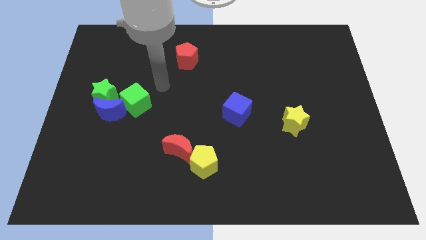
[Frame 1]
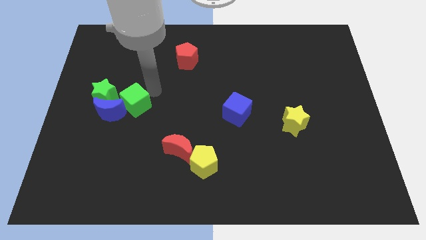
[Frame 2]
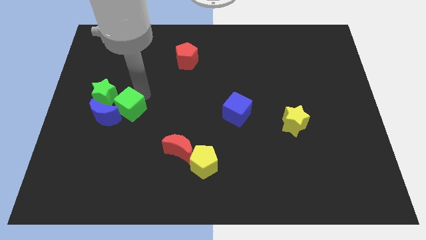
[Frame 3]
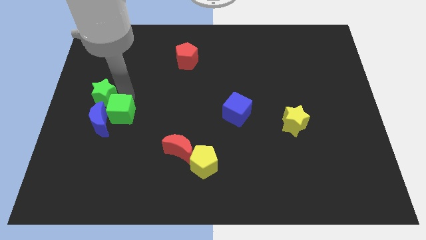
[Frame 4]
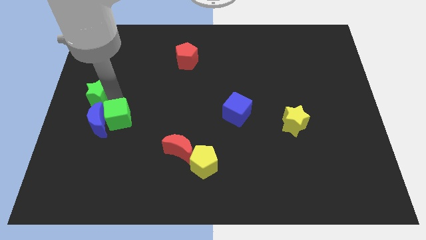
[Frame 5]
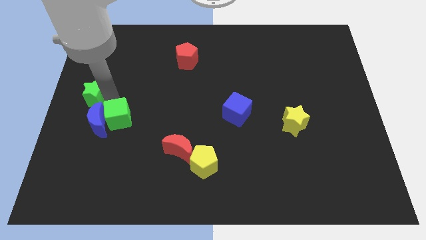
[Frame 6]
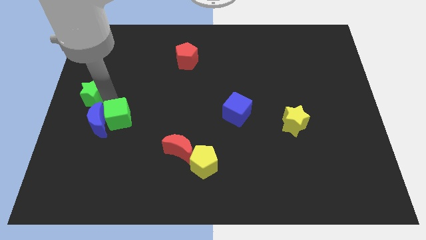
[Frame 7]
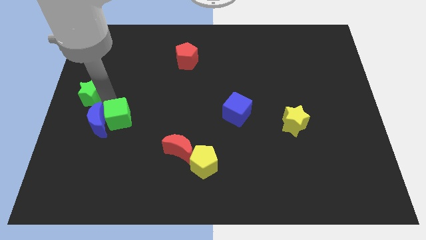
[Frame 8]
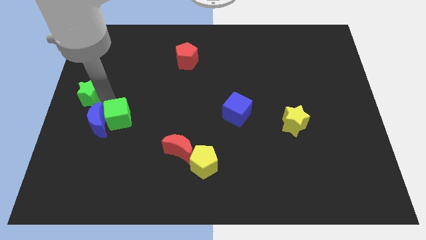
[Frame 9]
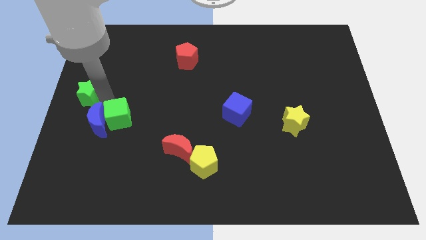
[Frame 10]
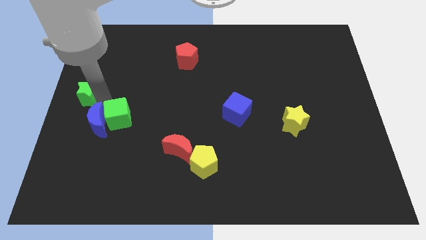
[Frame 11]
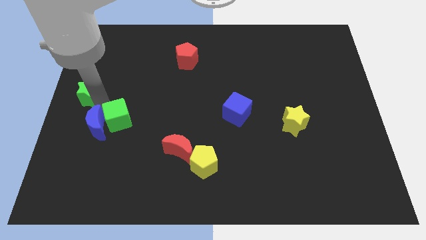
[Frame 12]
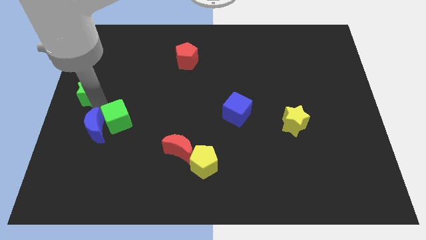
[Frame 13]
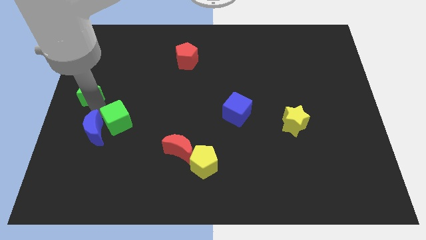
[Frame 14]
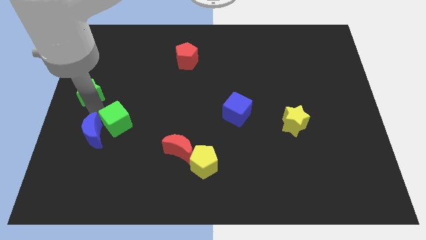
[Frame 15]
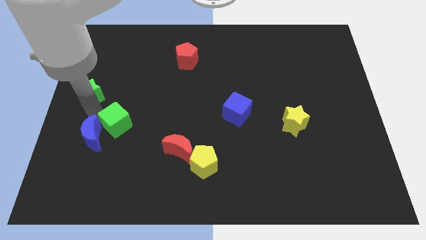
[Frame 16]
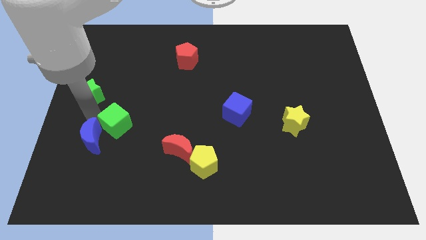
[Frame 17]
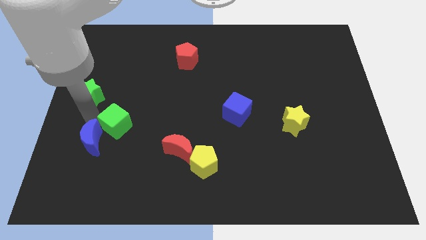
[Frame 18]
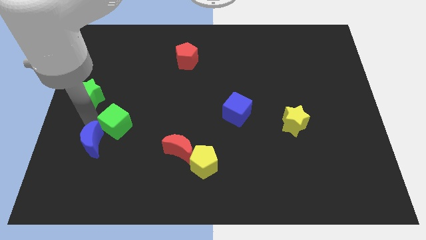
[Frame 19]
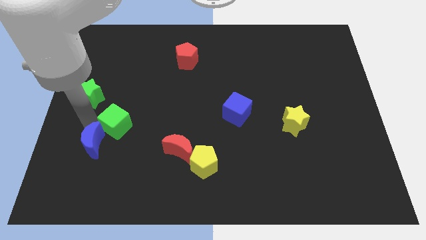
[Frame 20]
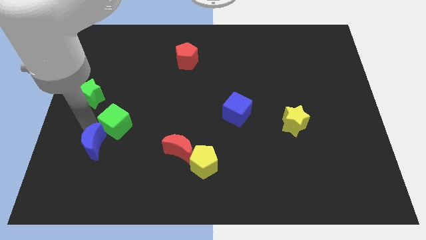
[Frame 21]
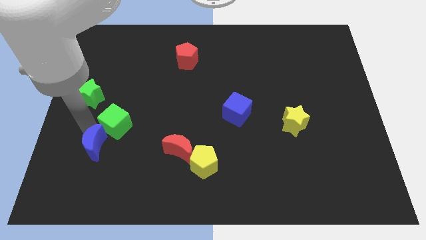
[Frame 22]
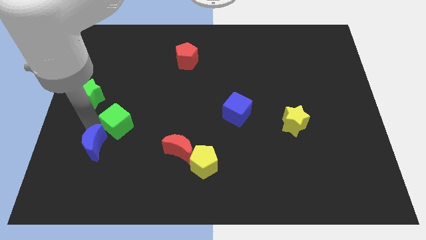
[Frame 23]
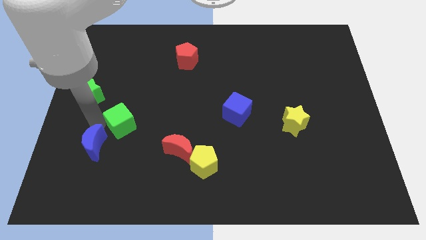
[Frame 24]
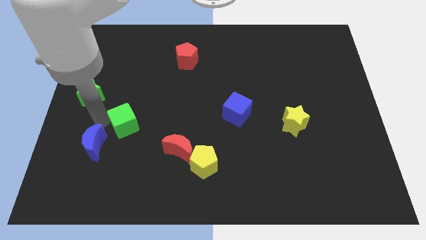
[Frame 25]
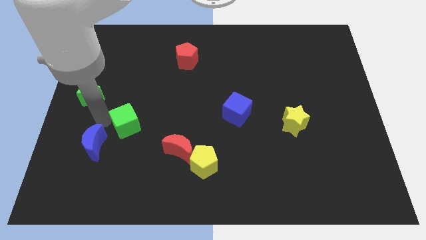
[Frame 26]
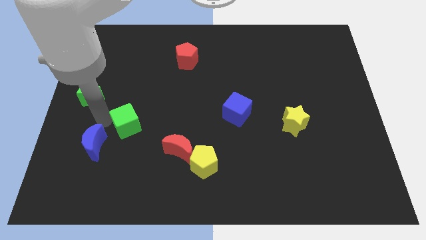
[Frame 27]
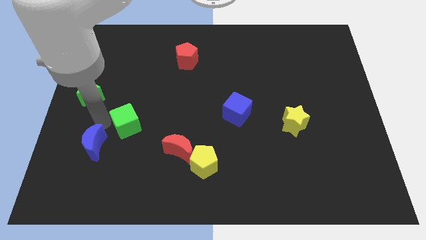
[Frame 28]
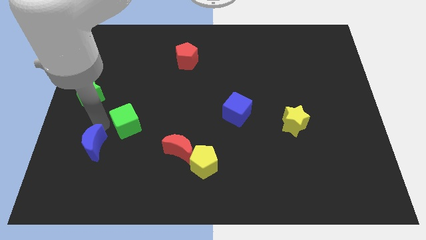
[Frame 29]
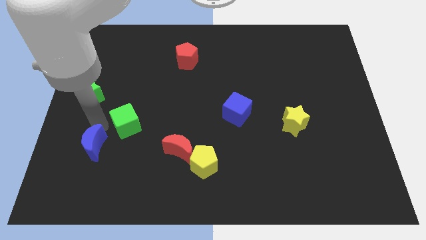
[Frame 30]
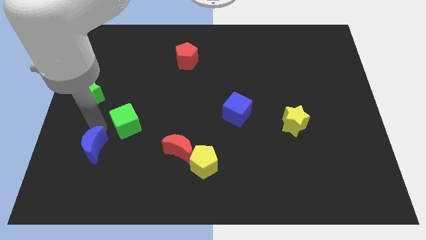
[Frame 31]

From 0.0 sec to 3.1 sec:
pull the blue moon apart from the green star and green cube

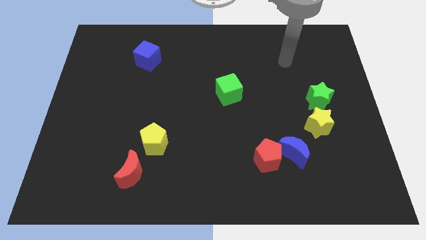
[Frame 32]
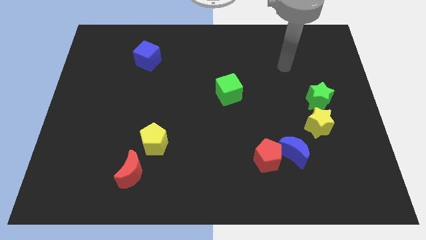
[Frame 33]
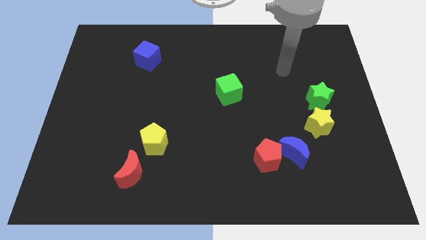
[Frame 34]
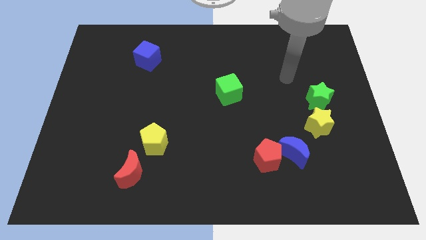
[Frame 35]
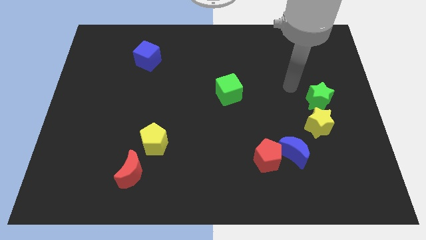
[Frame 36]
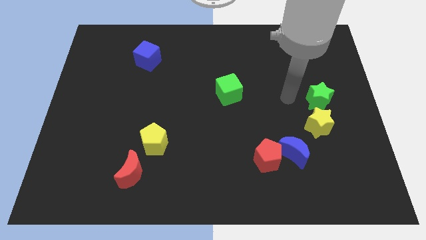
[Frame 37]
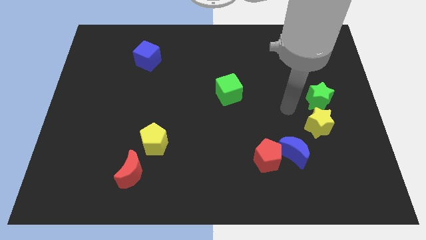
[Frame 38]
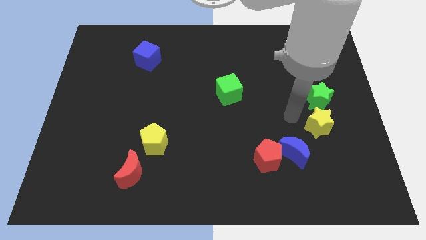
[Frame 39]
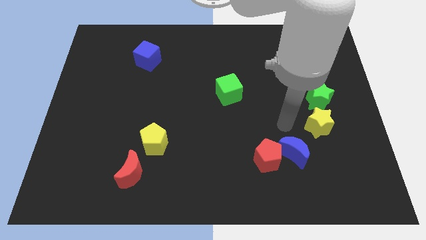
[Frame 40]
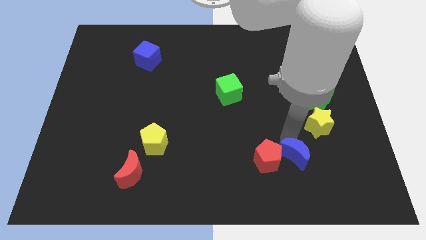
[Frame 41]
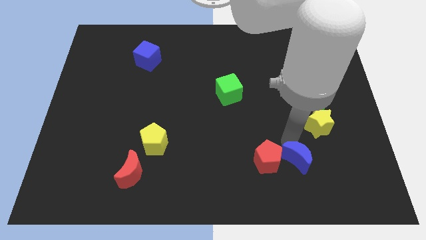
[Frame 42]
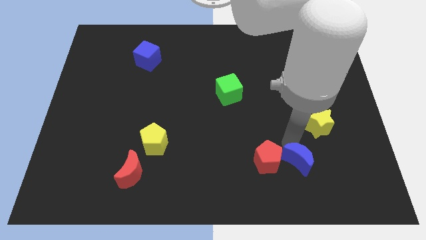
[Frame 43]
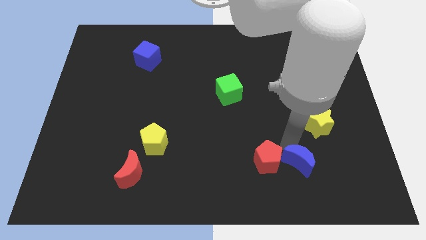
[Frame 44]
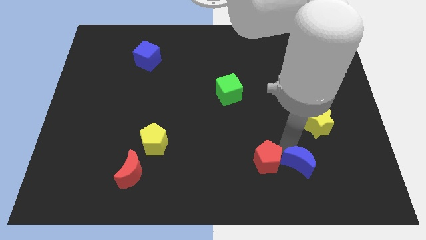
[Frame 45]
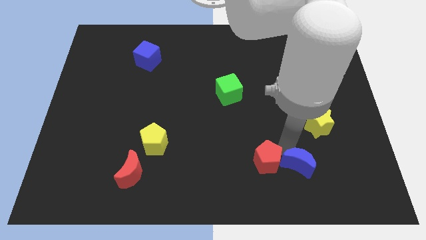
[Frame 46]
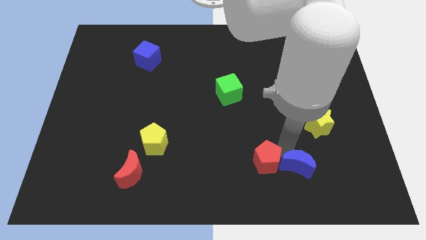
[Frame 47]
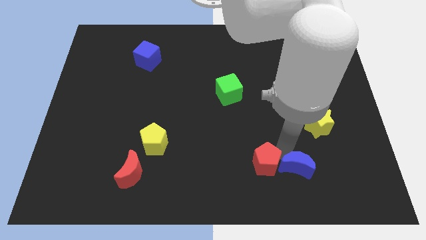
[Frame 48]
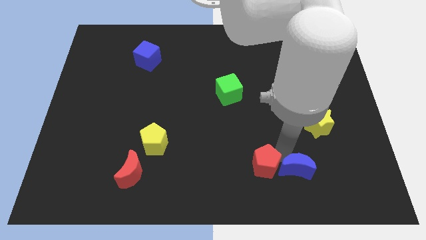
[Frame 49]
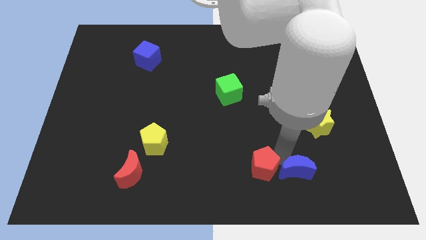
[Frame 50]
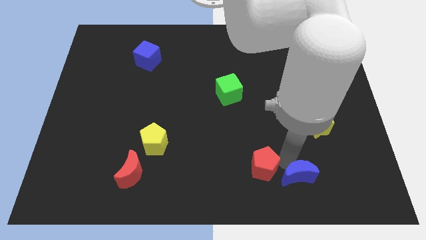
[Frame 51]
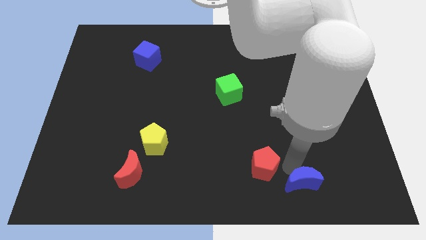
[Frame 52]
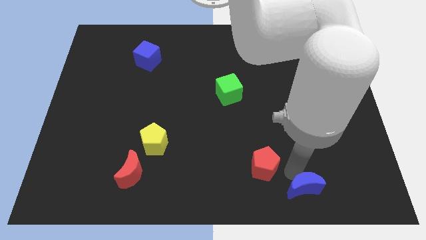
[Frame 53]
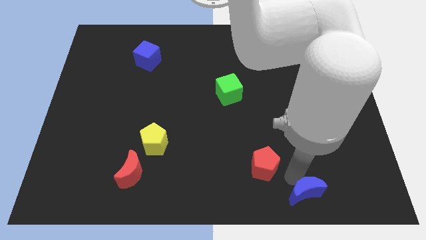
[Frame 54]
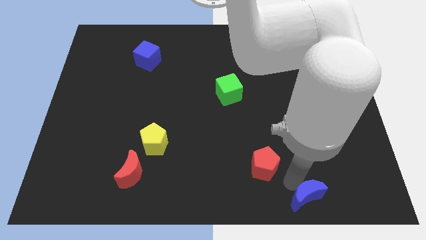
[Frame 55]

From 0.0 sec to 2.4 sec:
move the red pentagon away from the blue moon

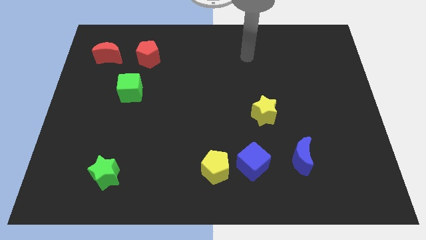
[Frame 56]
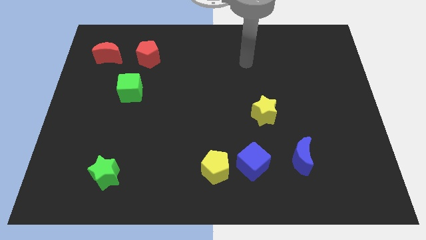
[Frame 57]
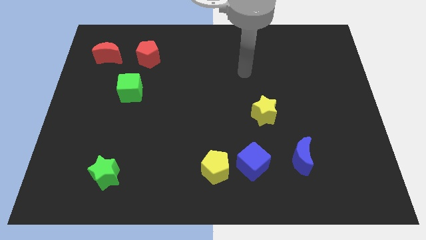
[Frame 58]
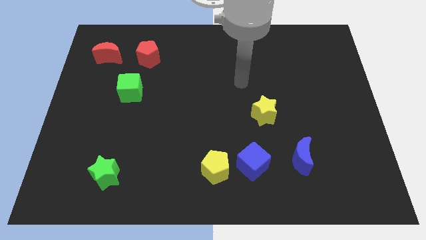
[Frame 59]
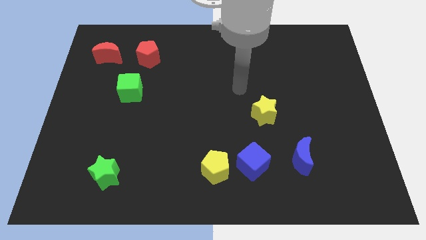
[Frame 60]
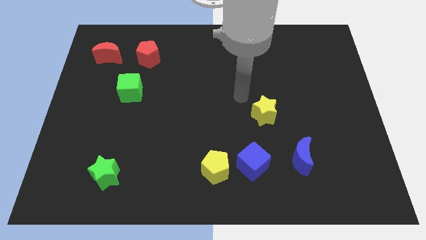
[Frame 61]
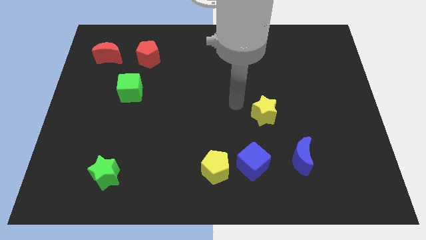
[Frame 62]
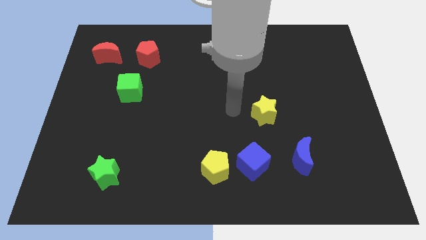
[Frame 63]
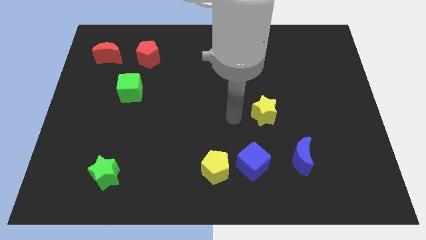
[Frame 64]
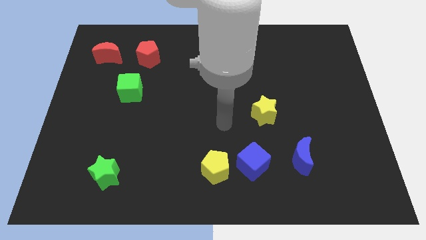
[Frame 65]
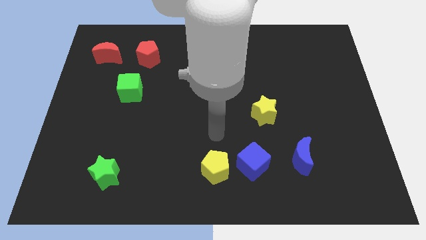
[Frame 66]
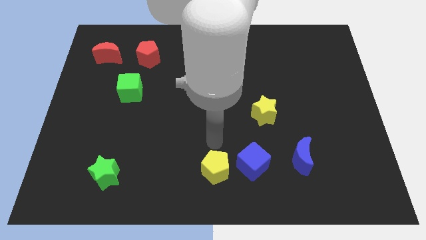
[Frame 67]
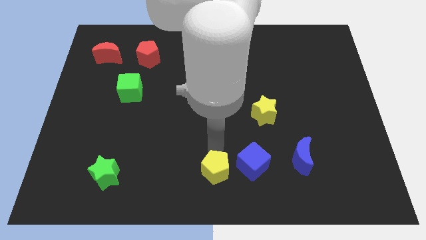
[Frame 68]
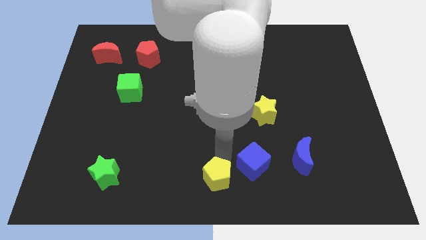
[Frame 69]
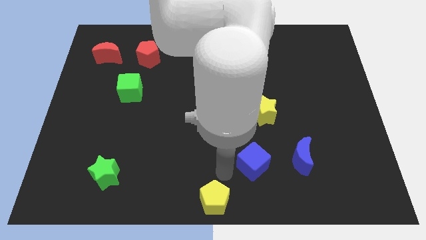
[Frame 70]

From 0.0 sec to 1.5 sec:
move the blue cube away from the yellow pentagon

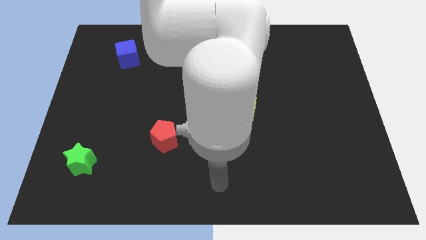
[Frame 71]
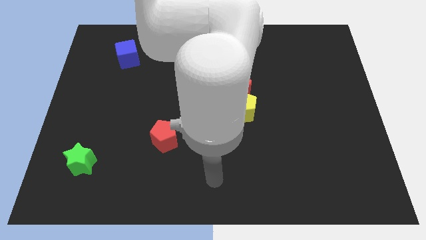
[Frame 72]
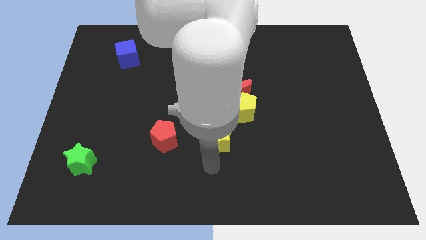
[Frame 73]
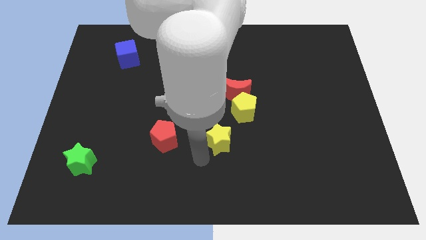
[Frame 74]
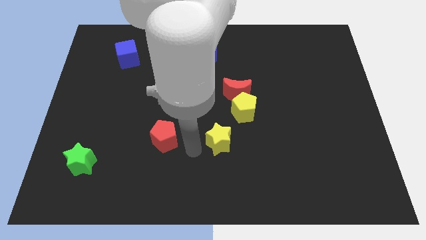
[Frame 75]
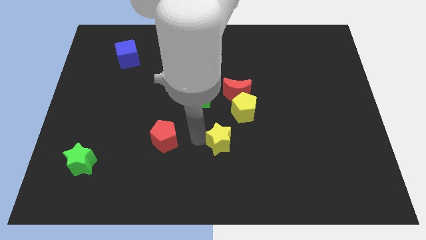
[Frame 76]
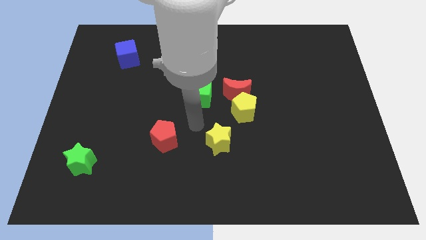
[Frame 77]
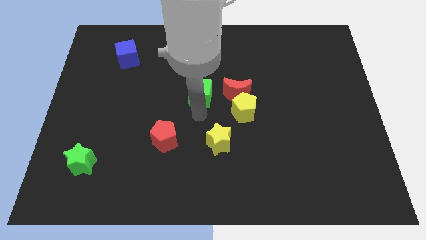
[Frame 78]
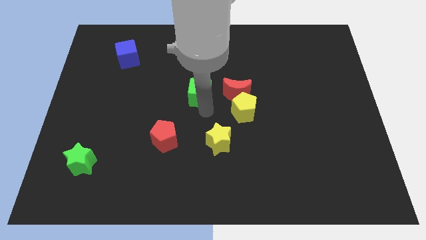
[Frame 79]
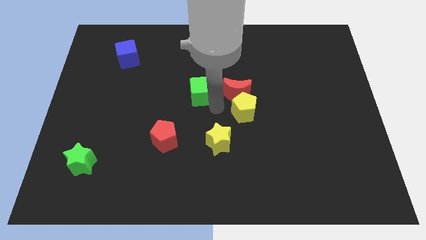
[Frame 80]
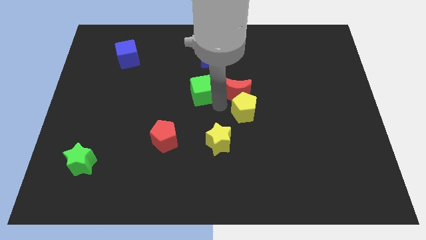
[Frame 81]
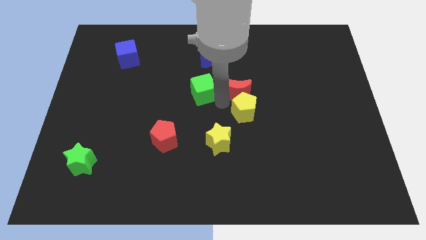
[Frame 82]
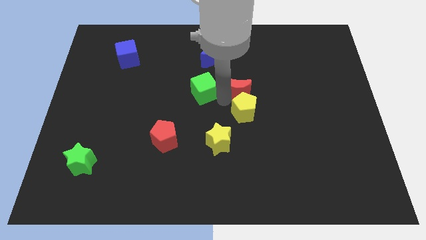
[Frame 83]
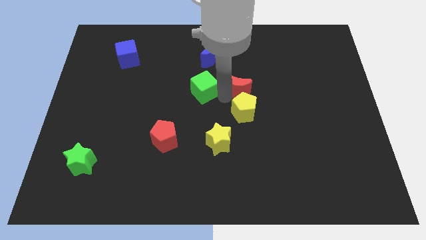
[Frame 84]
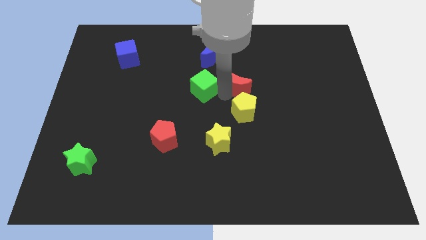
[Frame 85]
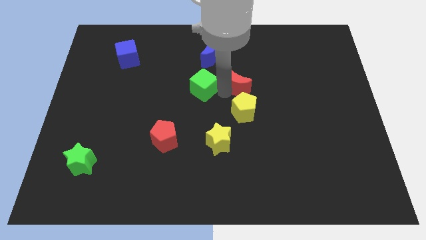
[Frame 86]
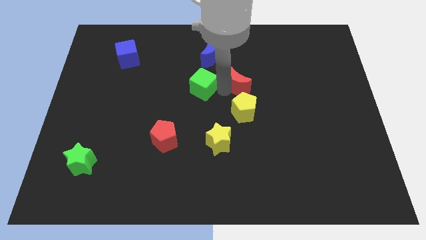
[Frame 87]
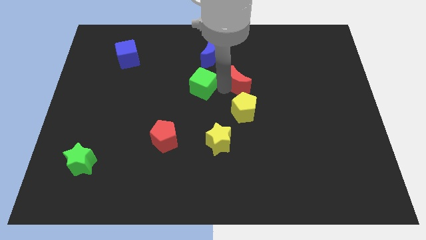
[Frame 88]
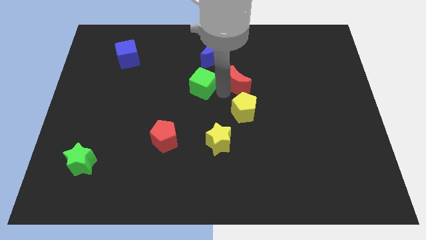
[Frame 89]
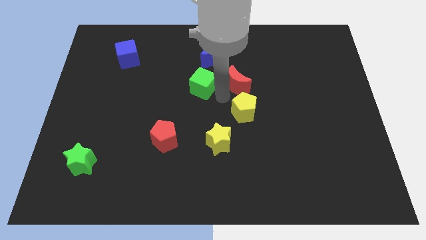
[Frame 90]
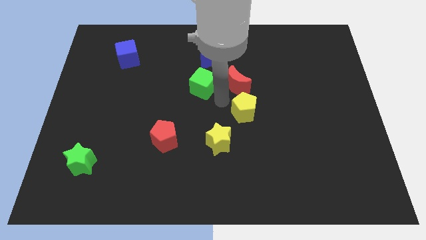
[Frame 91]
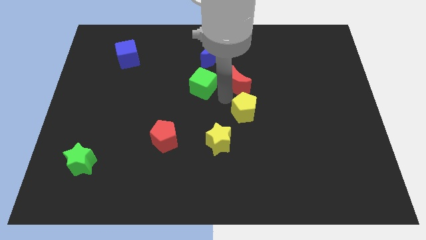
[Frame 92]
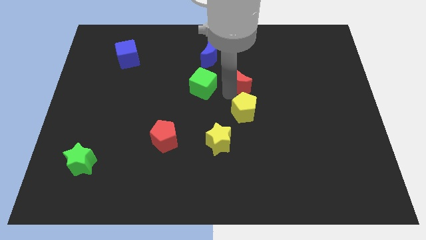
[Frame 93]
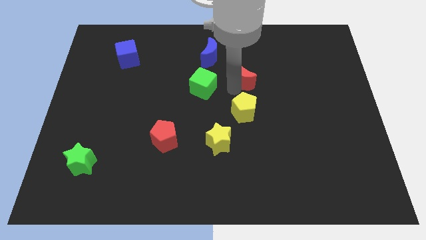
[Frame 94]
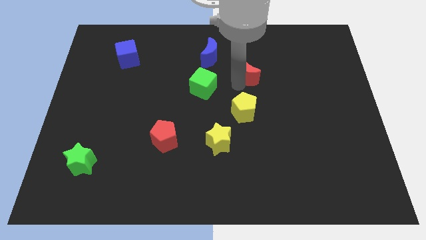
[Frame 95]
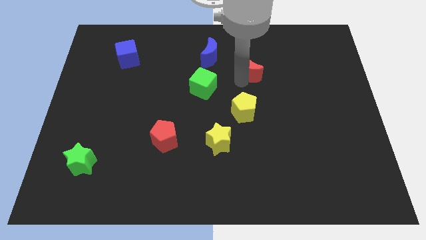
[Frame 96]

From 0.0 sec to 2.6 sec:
move the red moon away from the yellow pentagon and green cube
